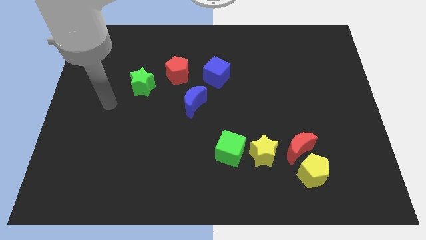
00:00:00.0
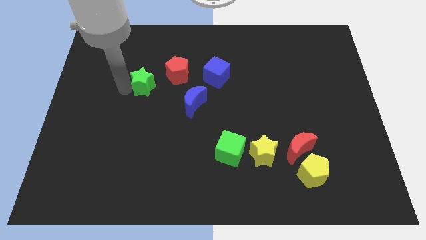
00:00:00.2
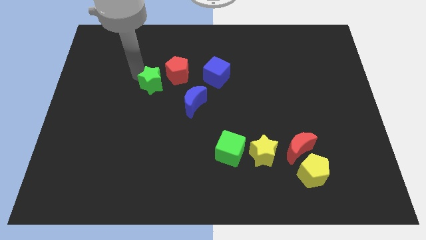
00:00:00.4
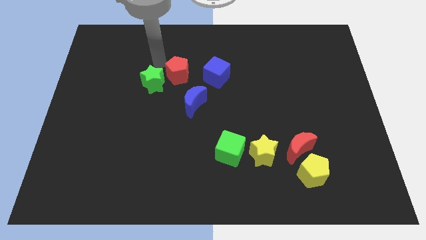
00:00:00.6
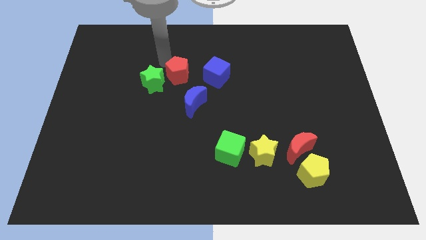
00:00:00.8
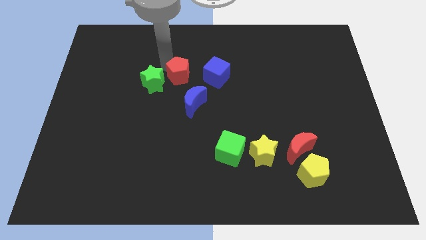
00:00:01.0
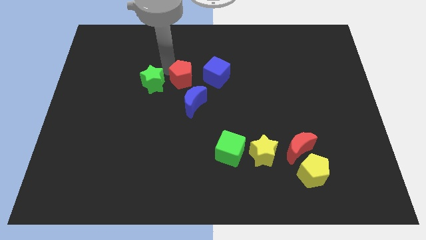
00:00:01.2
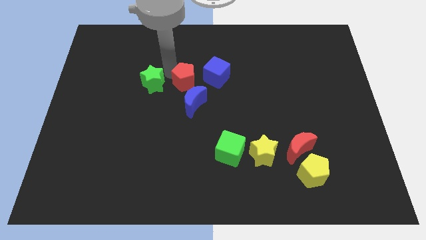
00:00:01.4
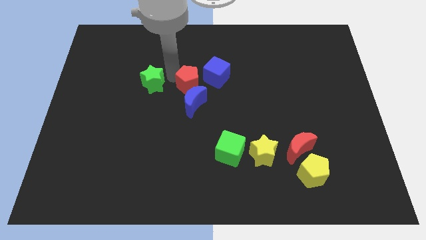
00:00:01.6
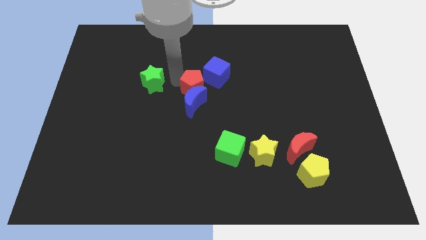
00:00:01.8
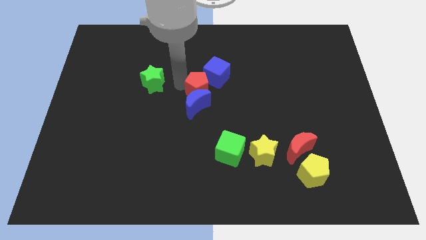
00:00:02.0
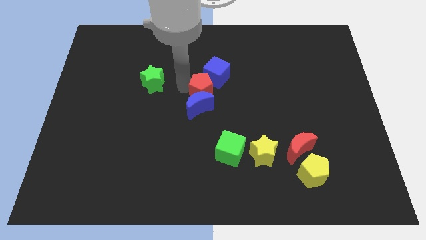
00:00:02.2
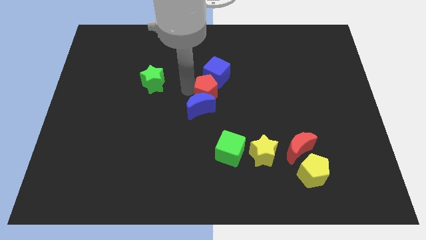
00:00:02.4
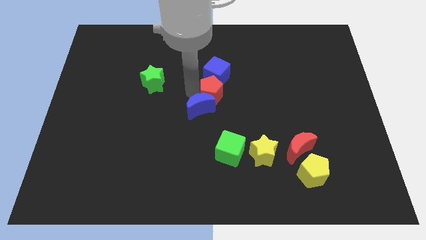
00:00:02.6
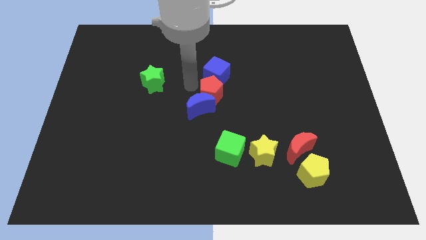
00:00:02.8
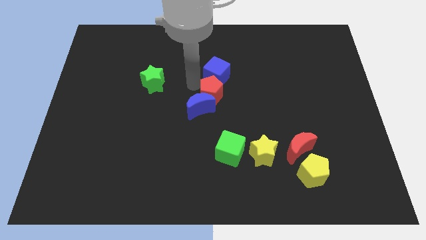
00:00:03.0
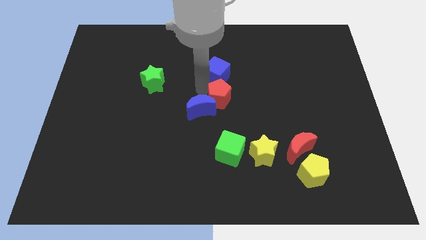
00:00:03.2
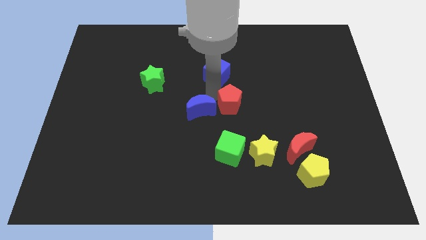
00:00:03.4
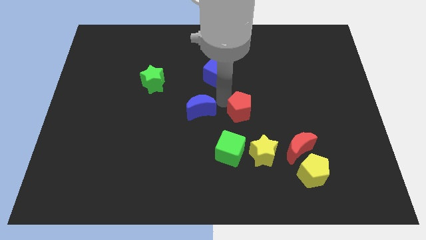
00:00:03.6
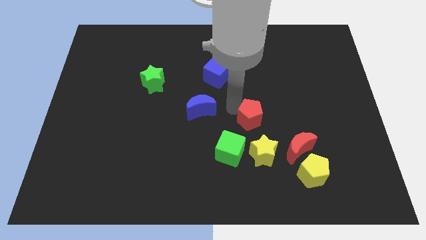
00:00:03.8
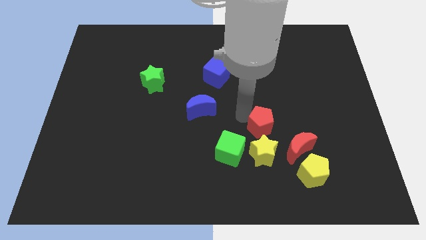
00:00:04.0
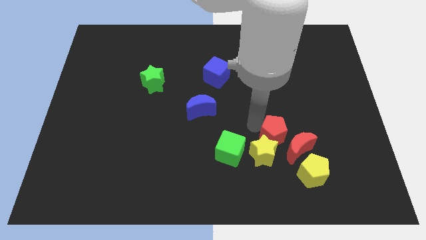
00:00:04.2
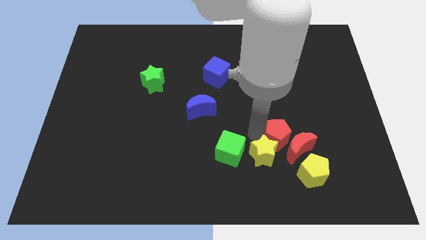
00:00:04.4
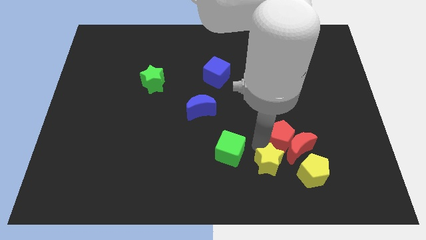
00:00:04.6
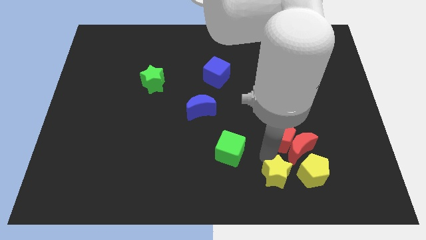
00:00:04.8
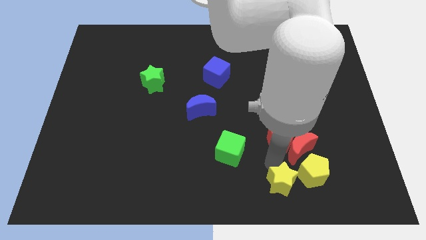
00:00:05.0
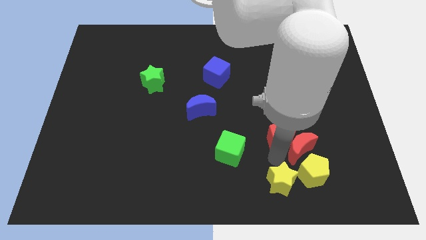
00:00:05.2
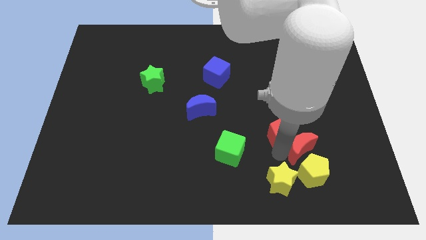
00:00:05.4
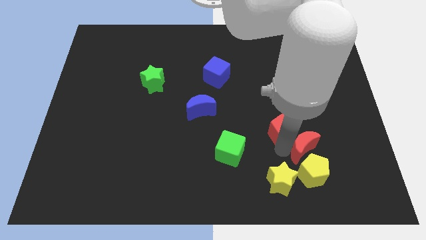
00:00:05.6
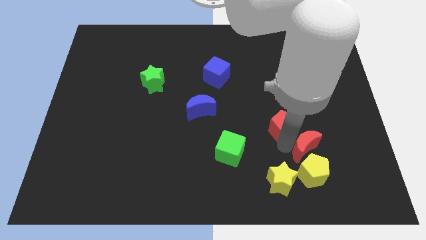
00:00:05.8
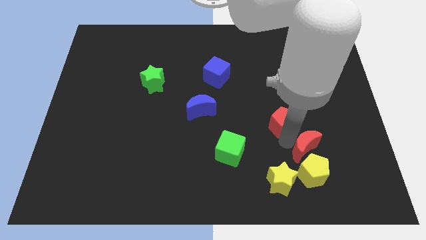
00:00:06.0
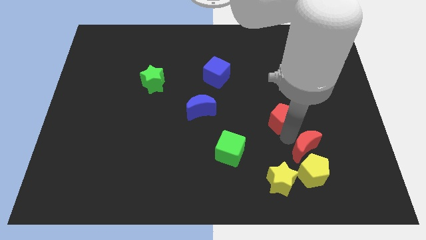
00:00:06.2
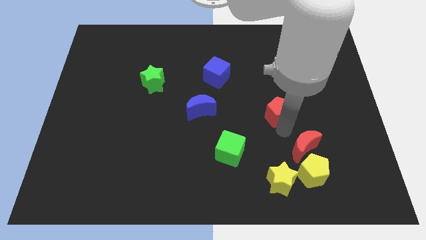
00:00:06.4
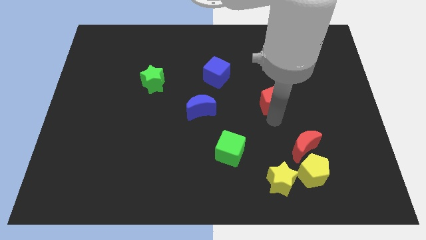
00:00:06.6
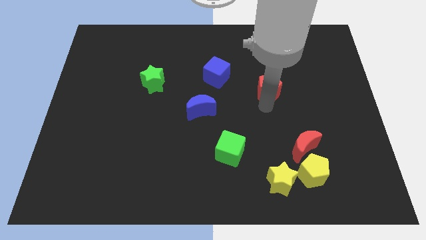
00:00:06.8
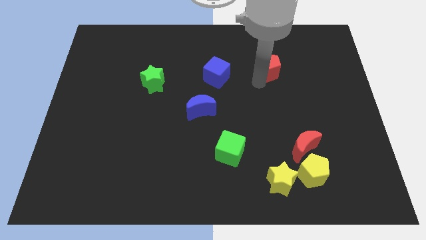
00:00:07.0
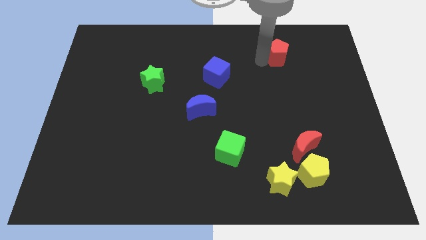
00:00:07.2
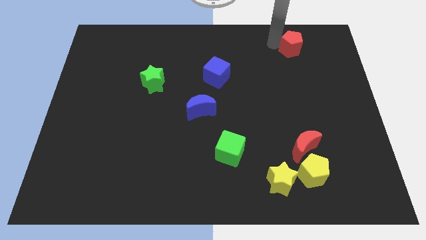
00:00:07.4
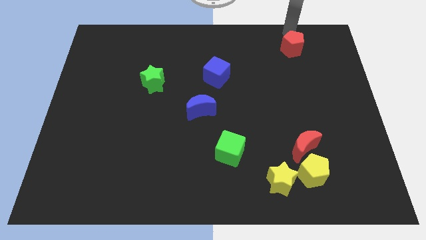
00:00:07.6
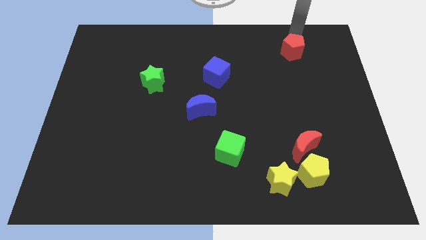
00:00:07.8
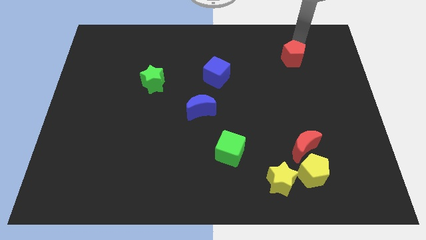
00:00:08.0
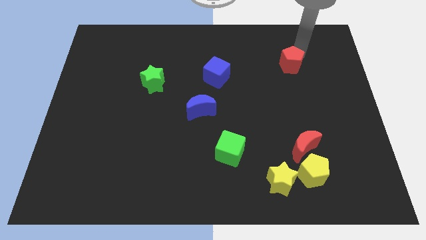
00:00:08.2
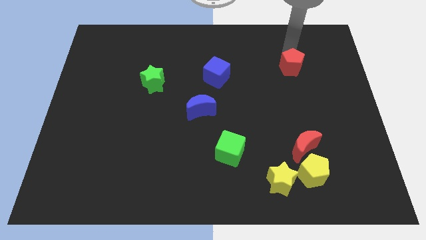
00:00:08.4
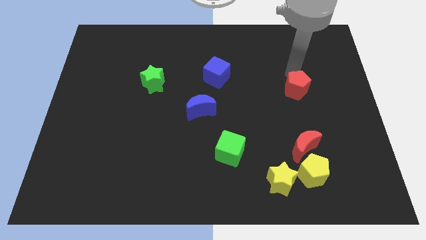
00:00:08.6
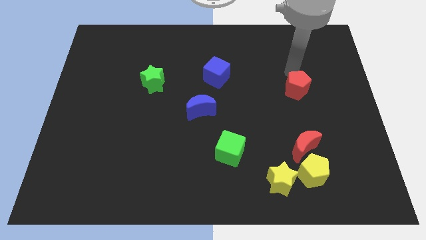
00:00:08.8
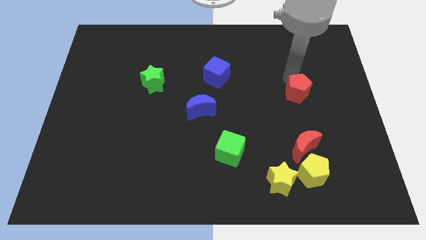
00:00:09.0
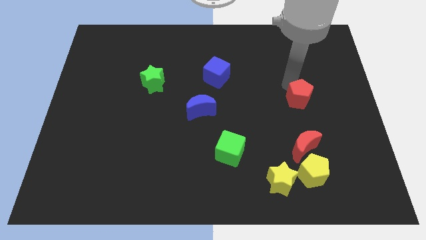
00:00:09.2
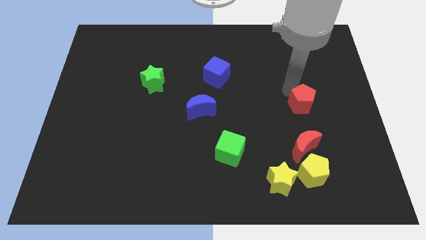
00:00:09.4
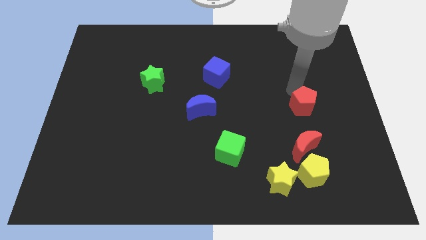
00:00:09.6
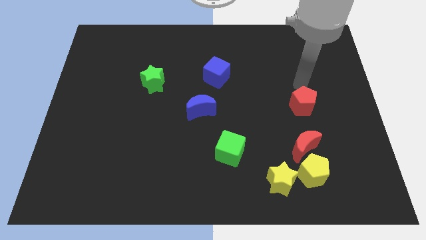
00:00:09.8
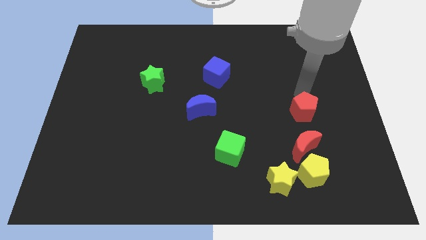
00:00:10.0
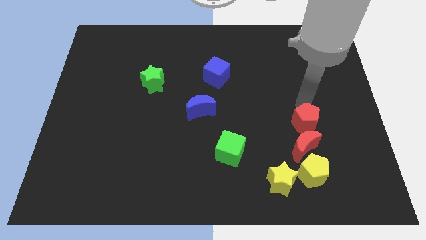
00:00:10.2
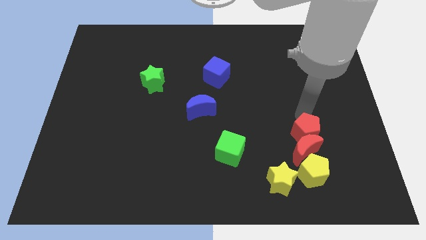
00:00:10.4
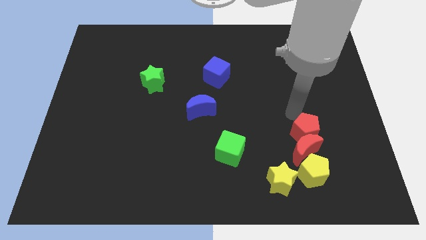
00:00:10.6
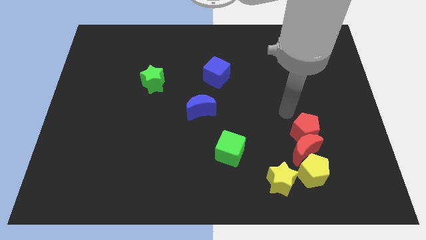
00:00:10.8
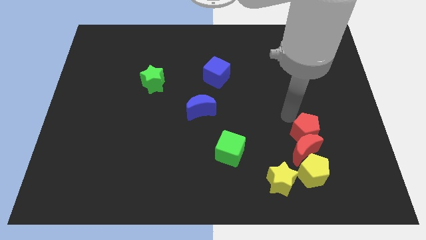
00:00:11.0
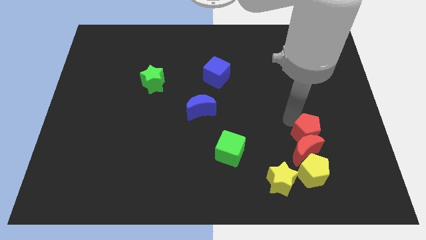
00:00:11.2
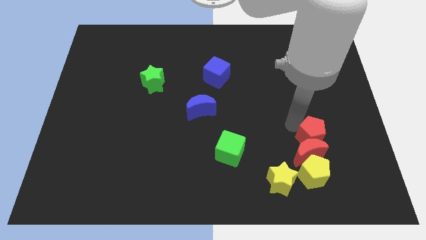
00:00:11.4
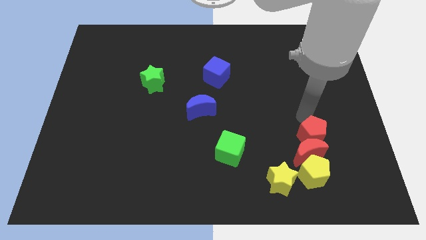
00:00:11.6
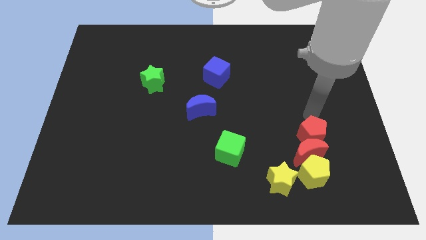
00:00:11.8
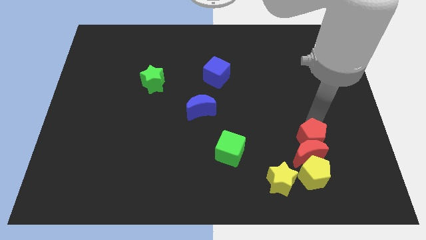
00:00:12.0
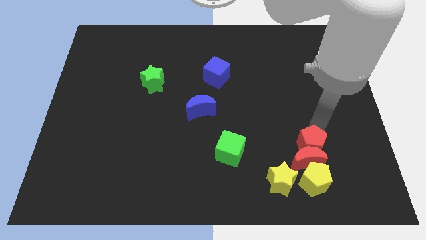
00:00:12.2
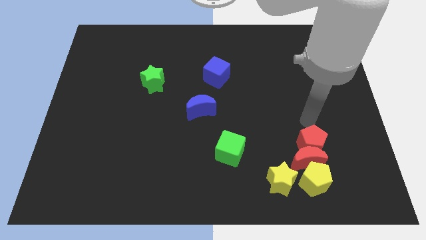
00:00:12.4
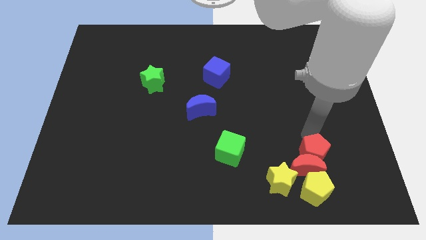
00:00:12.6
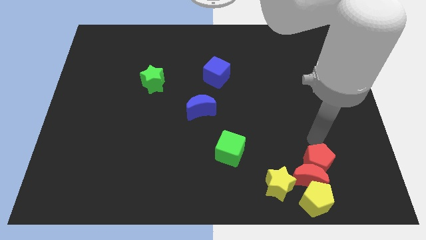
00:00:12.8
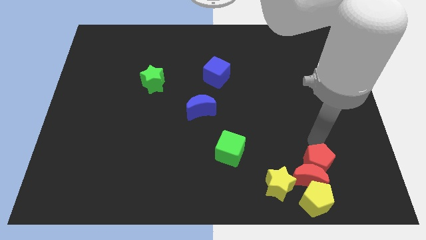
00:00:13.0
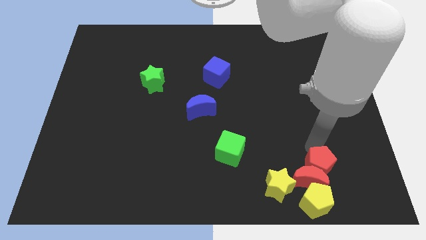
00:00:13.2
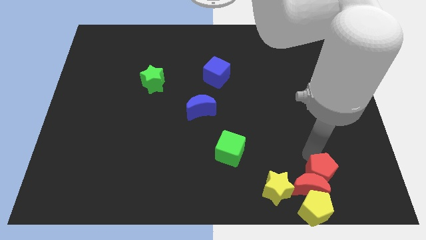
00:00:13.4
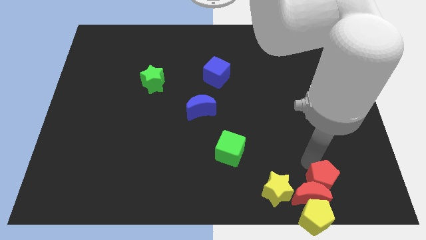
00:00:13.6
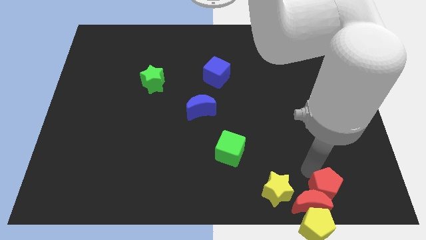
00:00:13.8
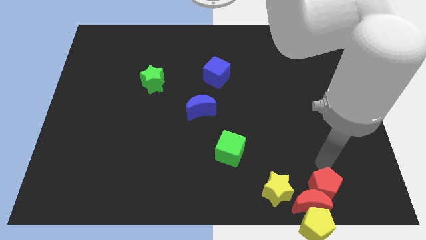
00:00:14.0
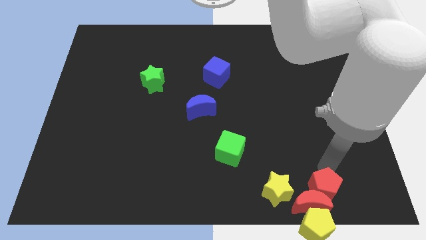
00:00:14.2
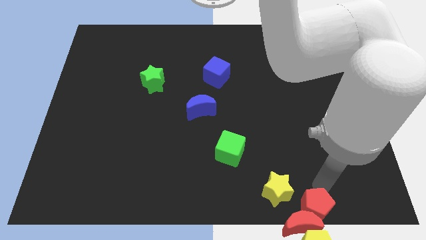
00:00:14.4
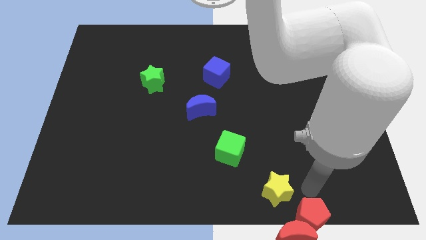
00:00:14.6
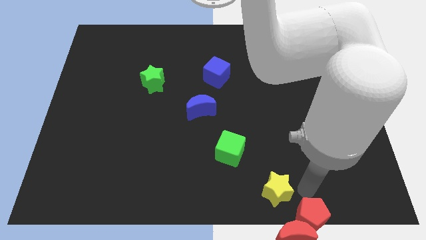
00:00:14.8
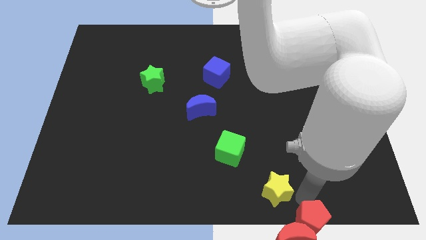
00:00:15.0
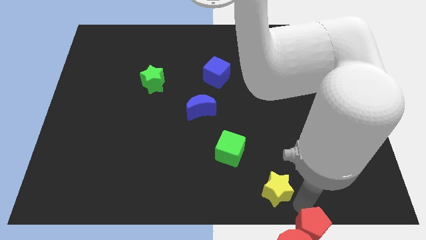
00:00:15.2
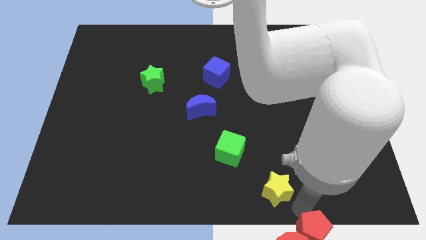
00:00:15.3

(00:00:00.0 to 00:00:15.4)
push the red pentagon towards the yellow pentagon
